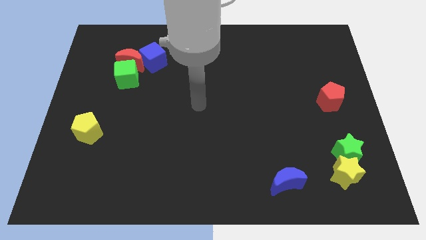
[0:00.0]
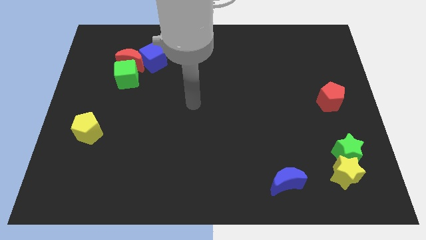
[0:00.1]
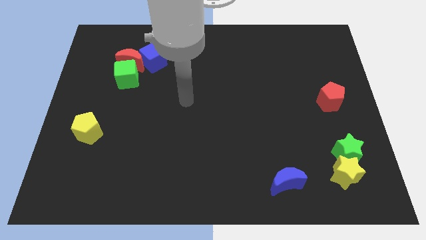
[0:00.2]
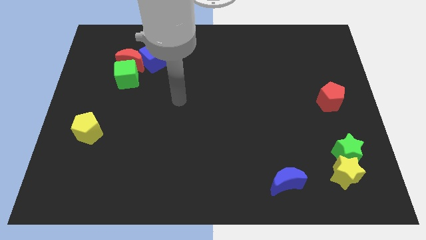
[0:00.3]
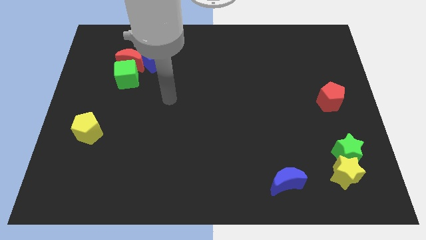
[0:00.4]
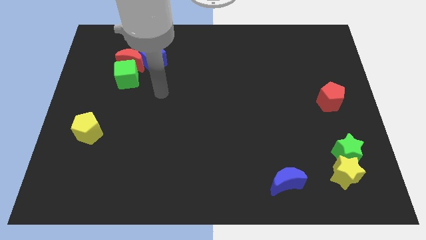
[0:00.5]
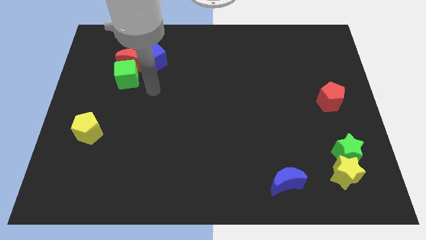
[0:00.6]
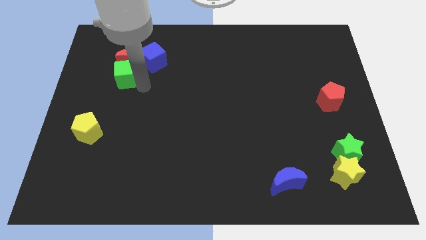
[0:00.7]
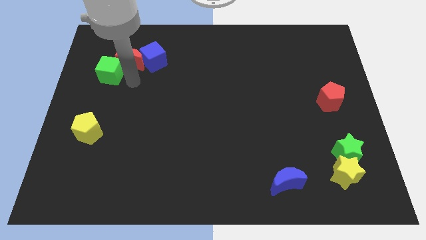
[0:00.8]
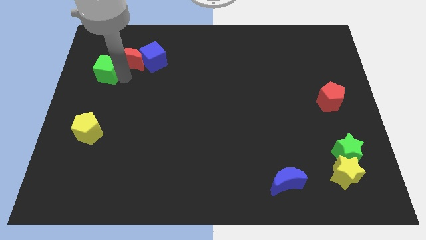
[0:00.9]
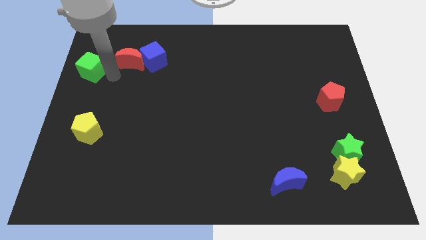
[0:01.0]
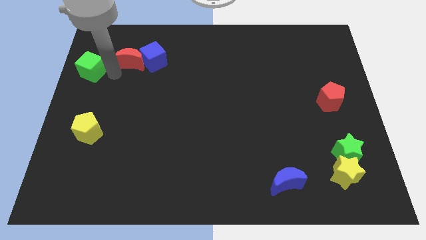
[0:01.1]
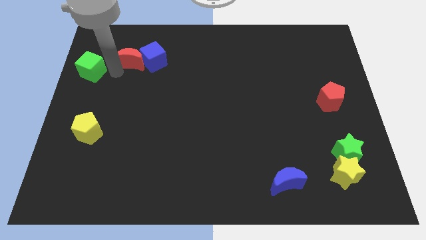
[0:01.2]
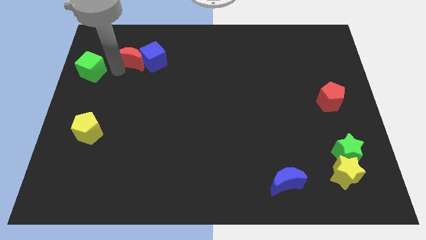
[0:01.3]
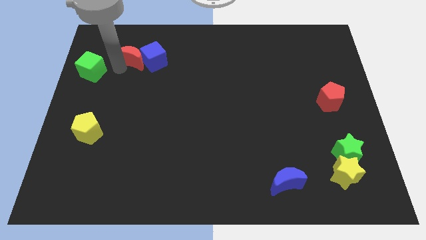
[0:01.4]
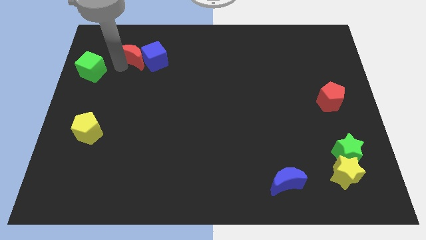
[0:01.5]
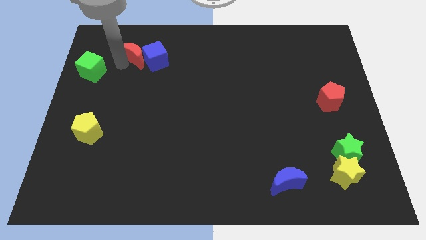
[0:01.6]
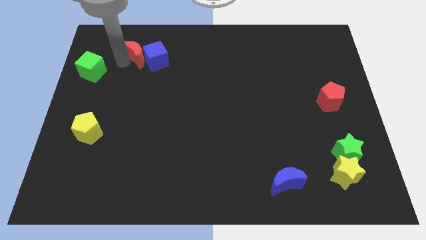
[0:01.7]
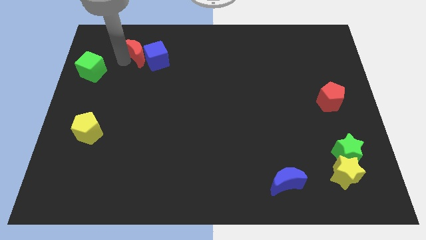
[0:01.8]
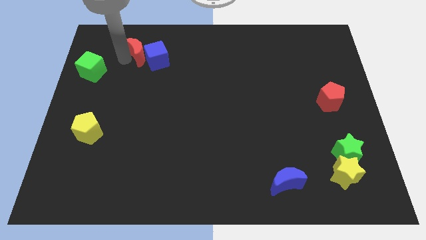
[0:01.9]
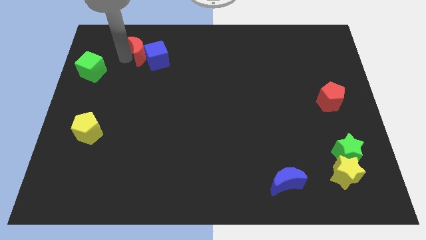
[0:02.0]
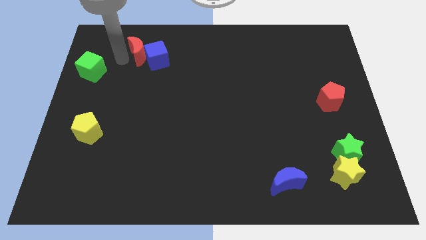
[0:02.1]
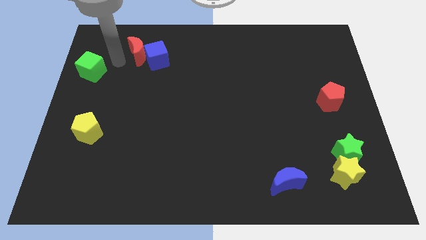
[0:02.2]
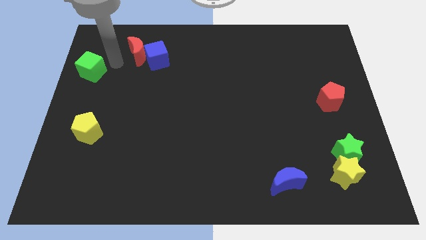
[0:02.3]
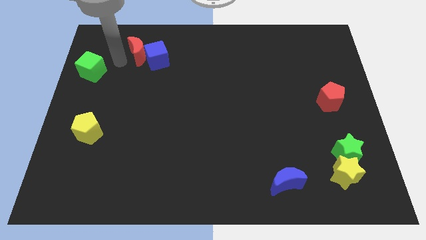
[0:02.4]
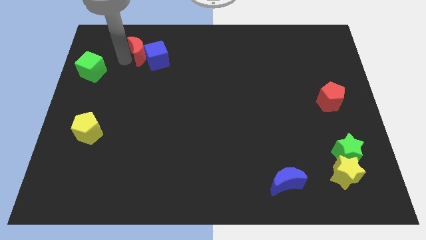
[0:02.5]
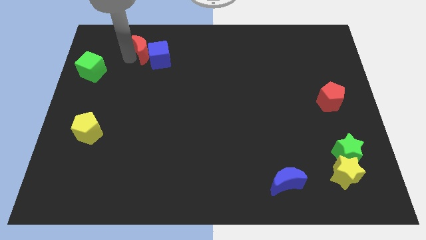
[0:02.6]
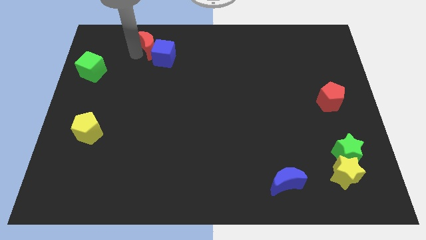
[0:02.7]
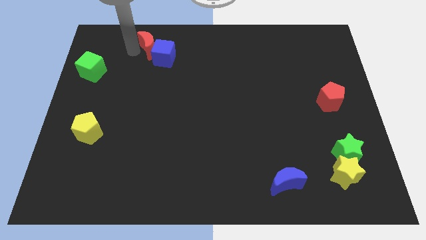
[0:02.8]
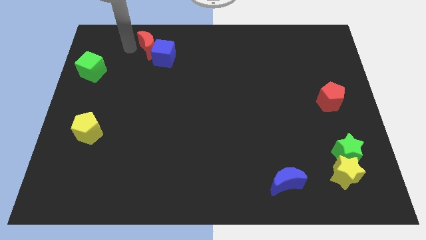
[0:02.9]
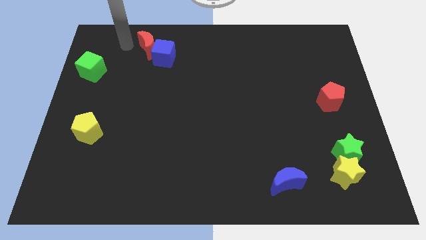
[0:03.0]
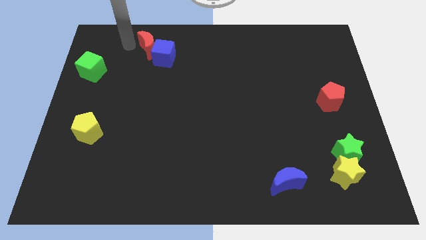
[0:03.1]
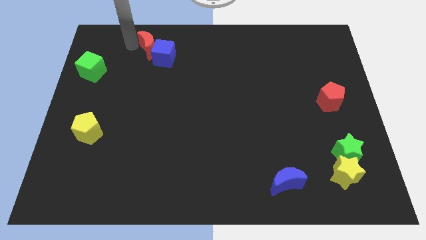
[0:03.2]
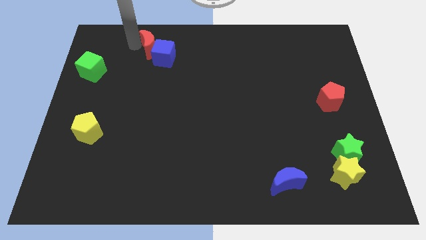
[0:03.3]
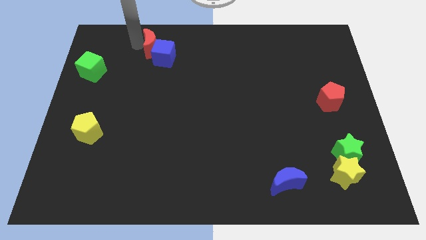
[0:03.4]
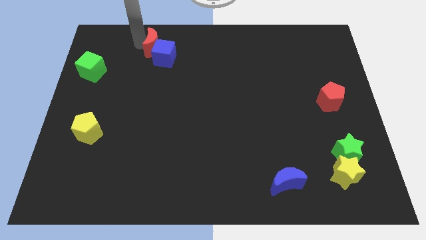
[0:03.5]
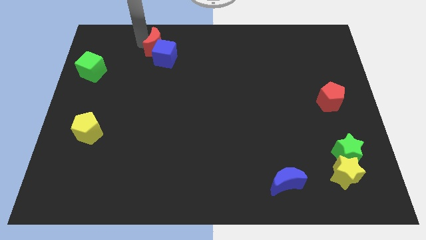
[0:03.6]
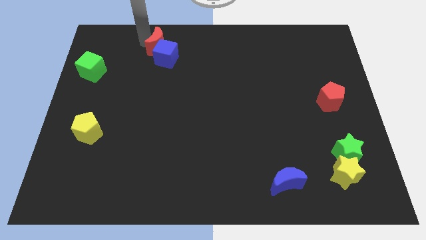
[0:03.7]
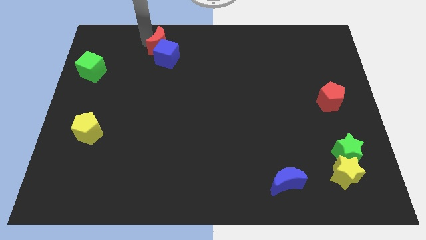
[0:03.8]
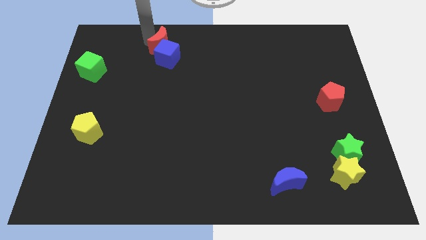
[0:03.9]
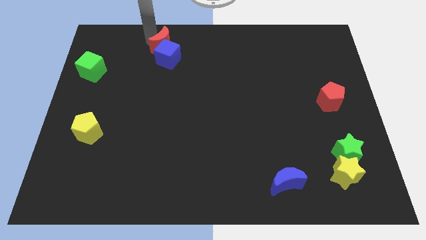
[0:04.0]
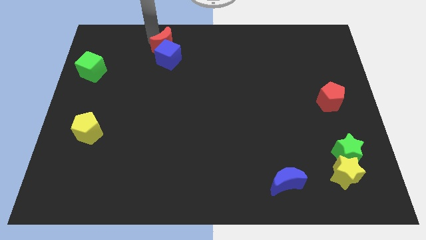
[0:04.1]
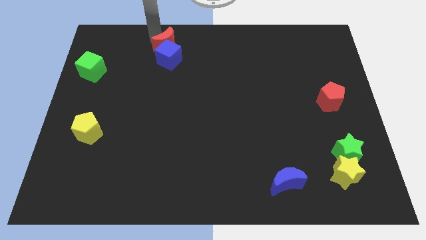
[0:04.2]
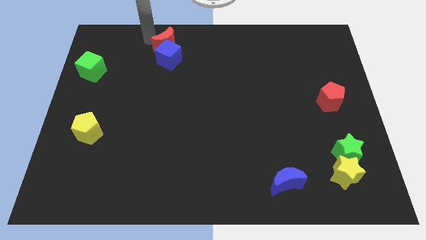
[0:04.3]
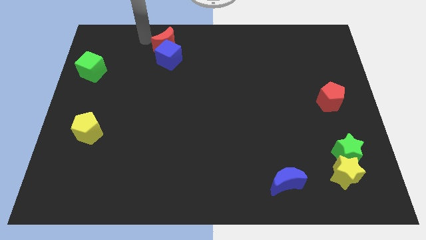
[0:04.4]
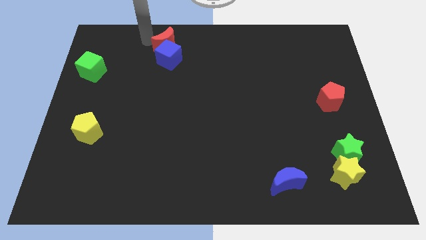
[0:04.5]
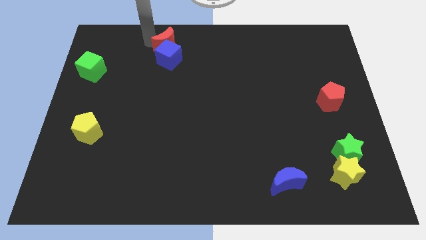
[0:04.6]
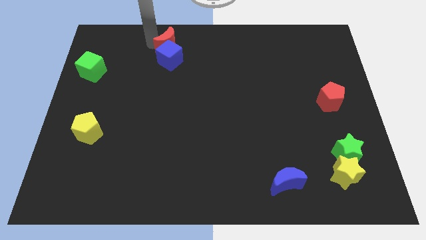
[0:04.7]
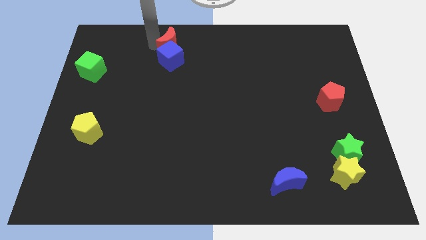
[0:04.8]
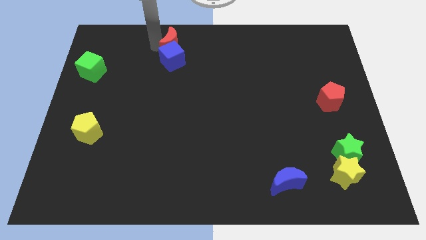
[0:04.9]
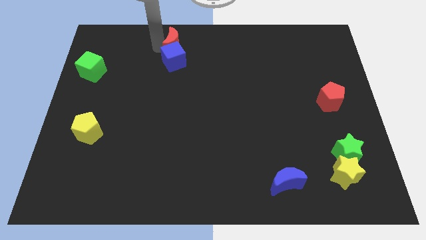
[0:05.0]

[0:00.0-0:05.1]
push the red moon to the towards your base

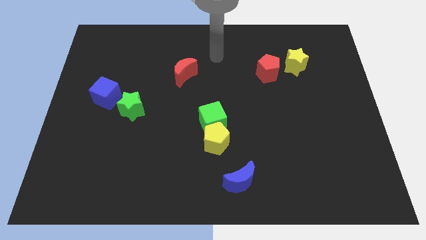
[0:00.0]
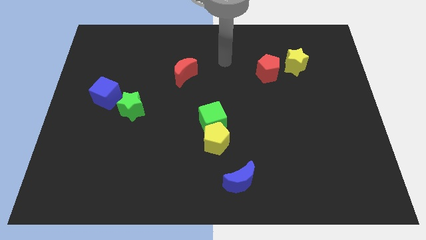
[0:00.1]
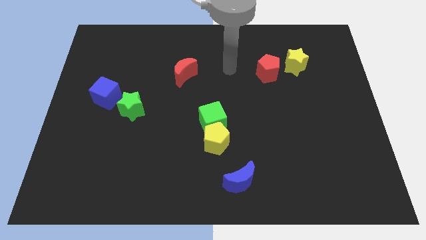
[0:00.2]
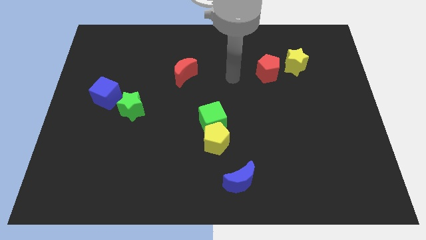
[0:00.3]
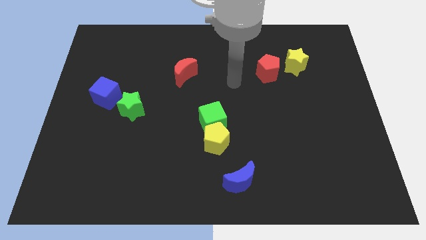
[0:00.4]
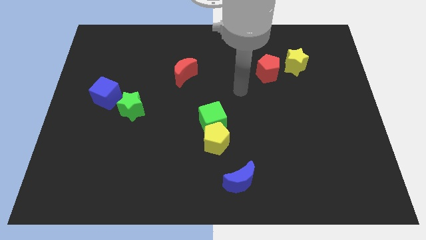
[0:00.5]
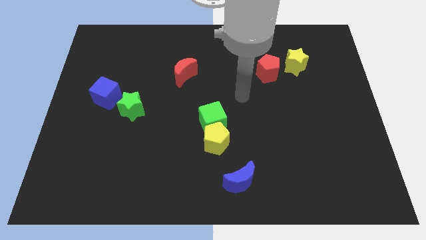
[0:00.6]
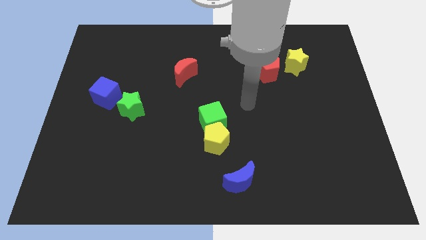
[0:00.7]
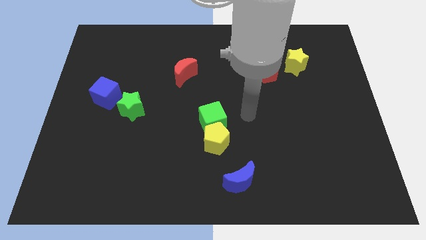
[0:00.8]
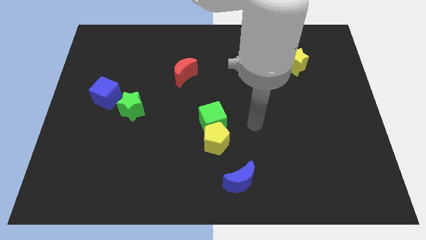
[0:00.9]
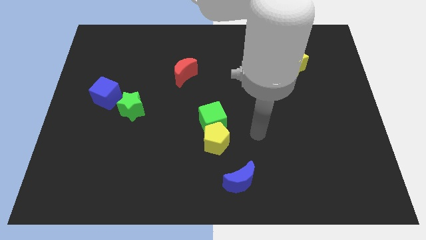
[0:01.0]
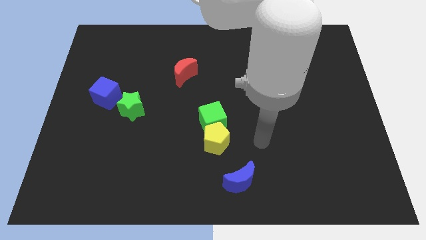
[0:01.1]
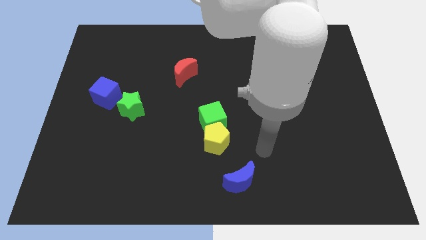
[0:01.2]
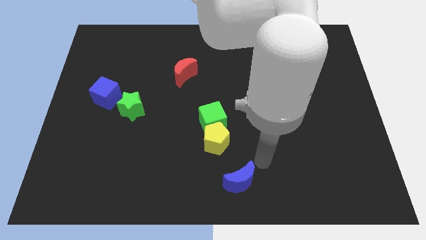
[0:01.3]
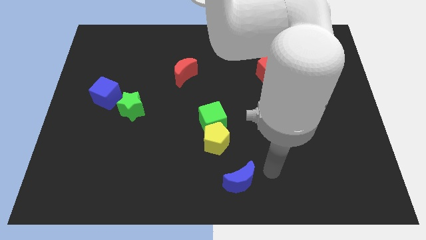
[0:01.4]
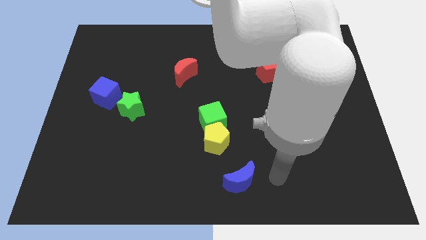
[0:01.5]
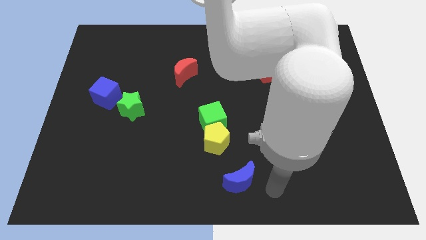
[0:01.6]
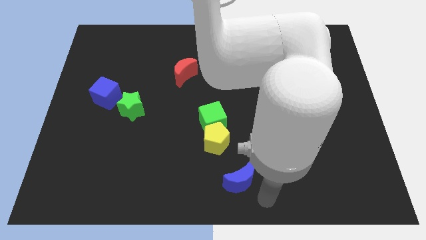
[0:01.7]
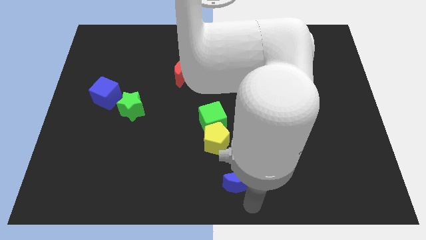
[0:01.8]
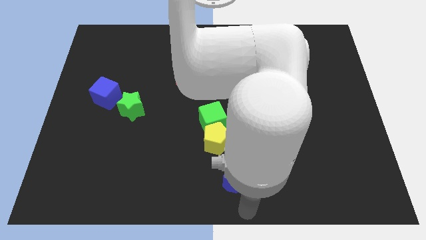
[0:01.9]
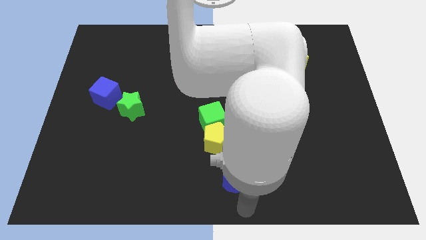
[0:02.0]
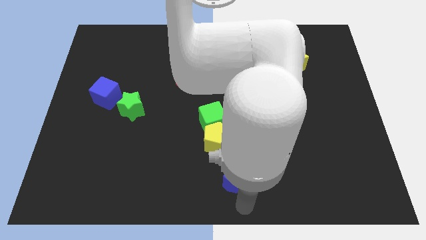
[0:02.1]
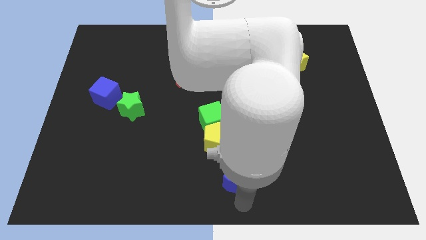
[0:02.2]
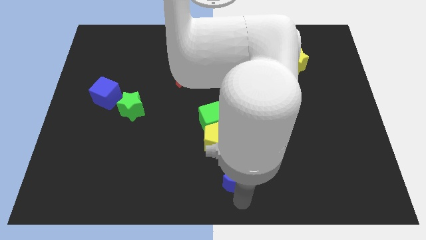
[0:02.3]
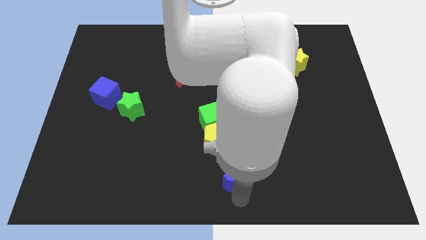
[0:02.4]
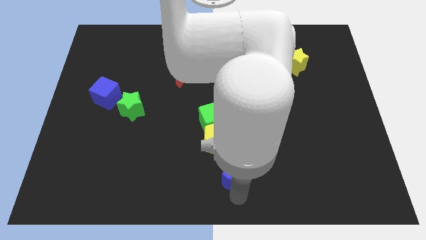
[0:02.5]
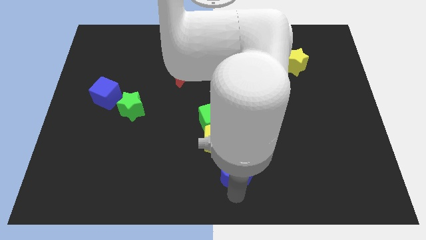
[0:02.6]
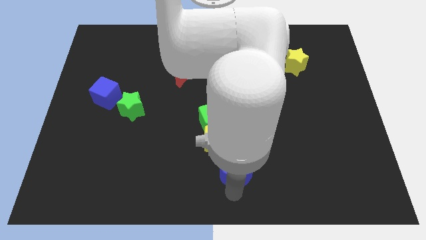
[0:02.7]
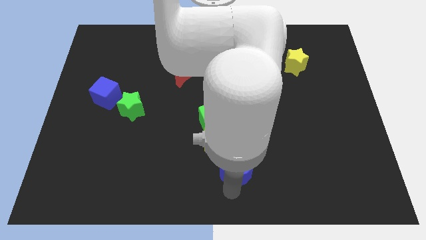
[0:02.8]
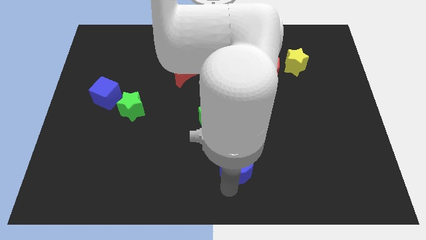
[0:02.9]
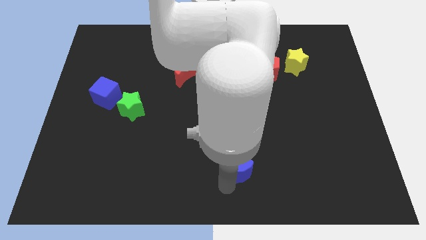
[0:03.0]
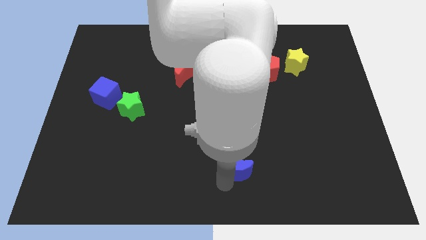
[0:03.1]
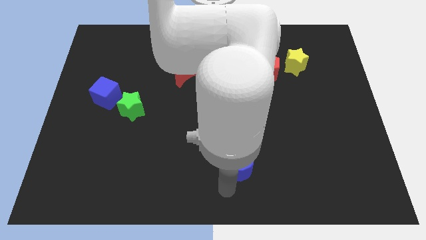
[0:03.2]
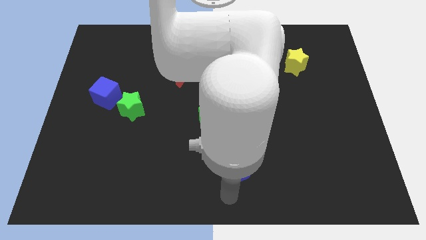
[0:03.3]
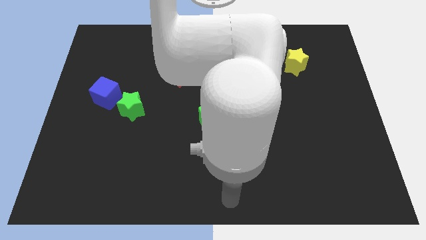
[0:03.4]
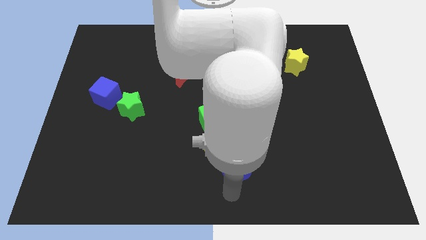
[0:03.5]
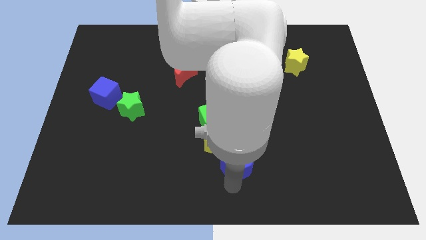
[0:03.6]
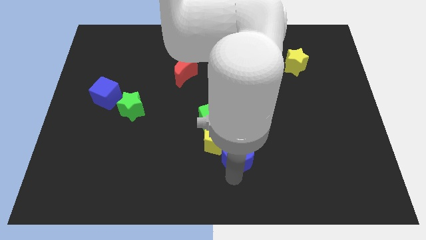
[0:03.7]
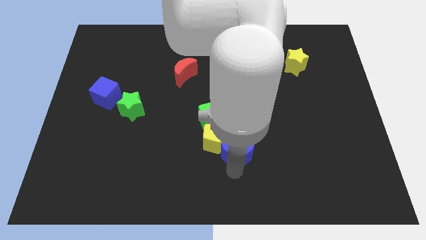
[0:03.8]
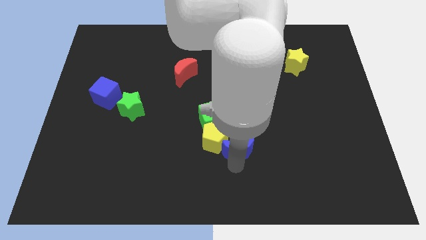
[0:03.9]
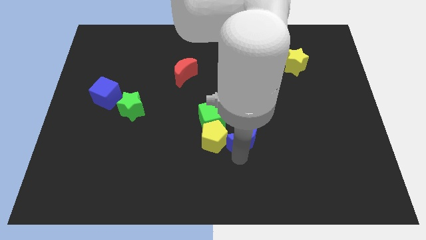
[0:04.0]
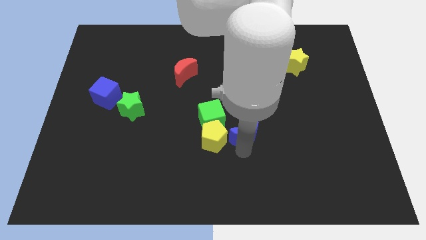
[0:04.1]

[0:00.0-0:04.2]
slide the blue moon to the middle of the board
